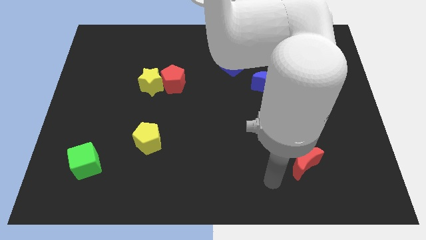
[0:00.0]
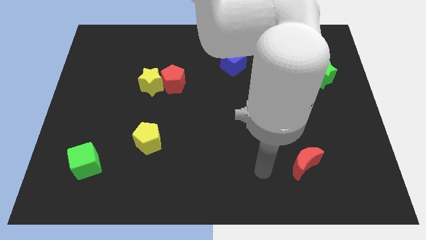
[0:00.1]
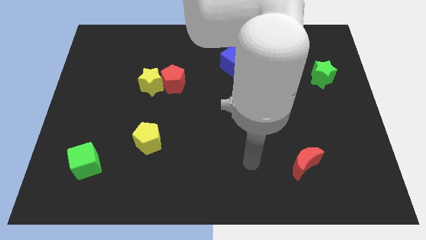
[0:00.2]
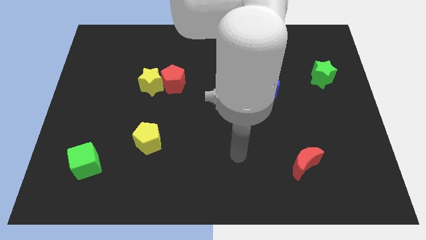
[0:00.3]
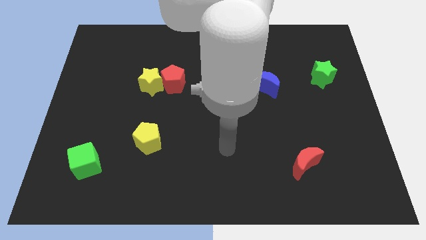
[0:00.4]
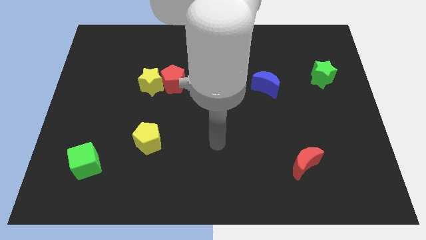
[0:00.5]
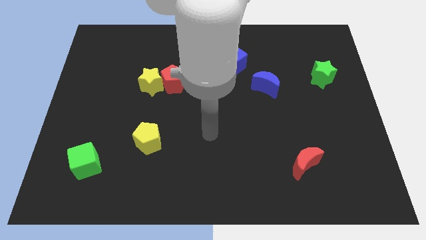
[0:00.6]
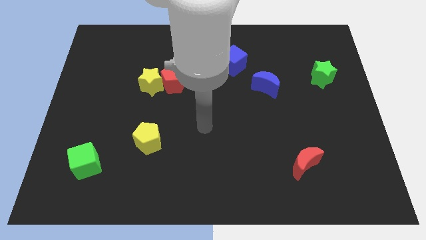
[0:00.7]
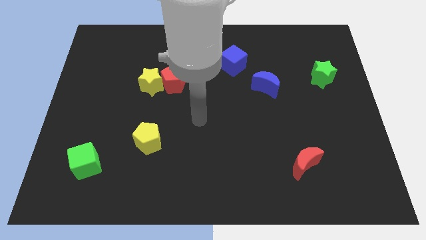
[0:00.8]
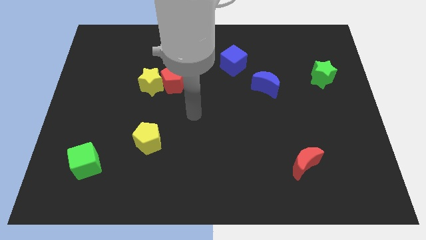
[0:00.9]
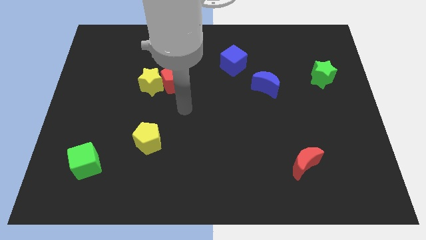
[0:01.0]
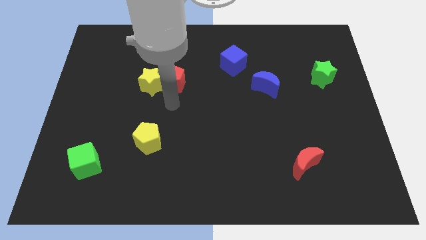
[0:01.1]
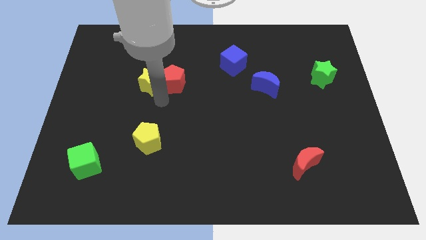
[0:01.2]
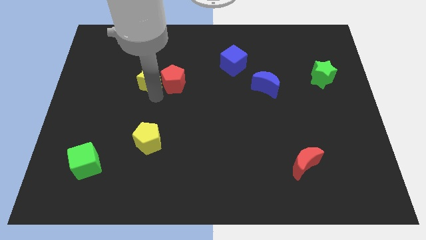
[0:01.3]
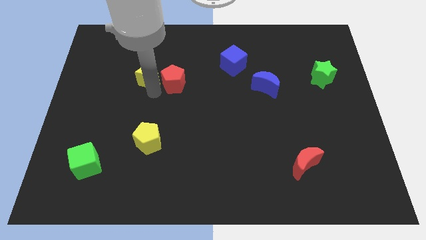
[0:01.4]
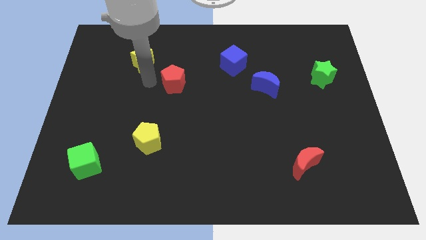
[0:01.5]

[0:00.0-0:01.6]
separate the red pentagon from the yellow star

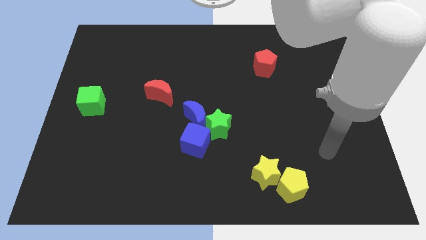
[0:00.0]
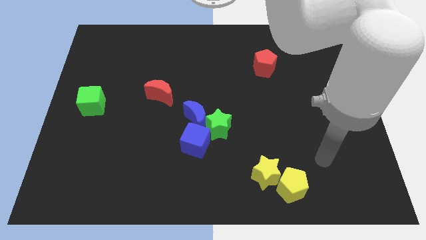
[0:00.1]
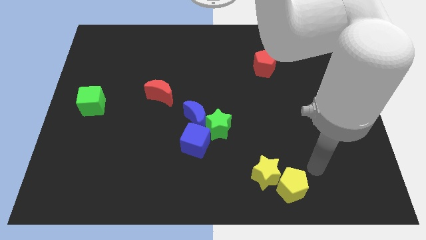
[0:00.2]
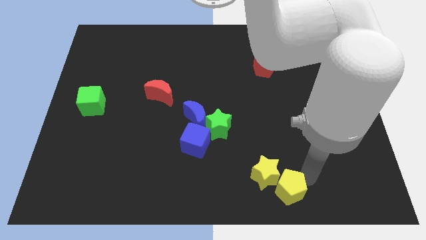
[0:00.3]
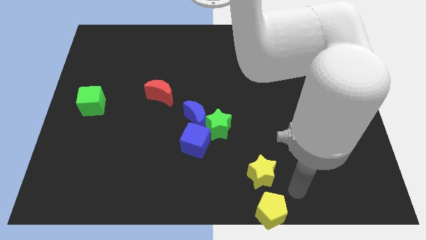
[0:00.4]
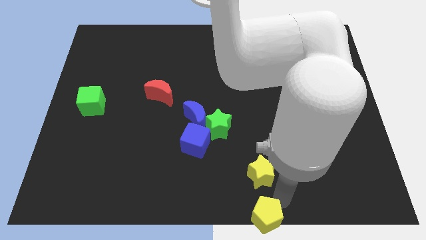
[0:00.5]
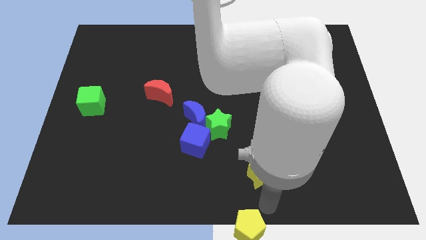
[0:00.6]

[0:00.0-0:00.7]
move the yellow star away from the yellow pentagon

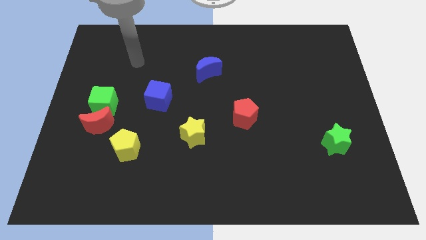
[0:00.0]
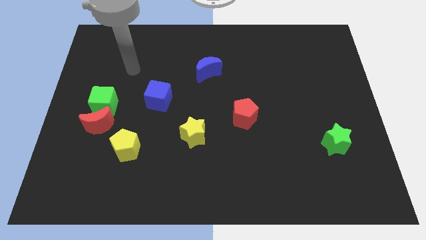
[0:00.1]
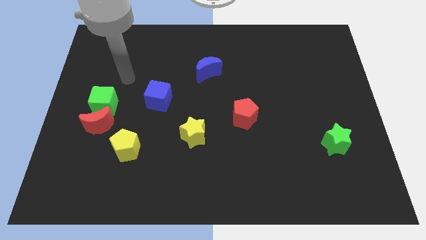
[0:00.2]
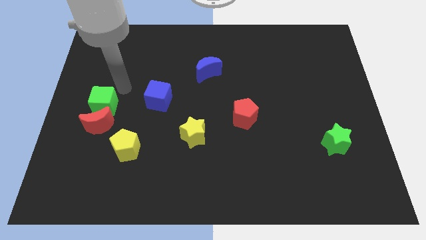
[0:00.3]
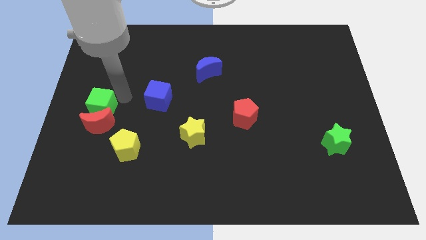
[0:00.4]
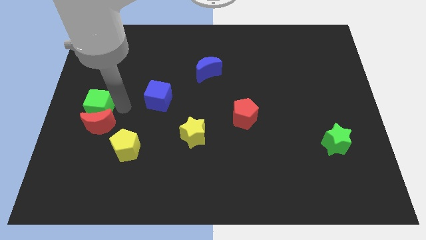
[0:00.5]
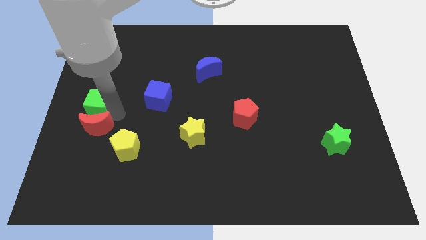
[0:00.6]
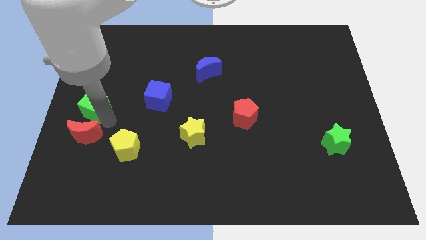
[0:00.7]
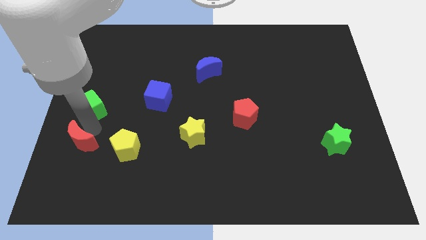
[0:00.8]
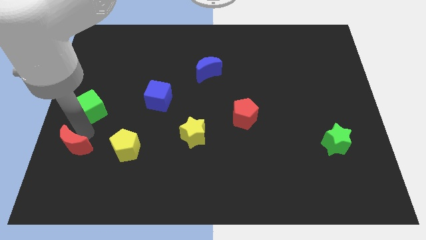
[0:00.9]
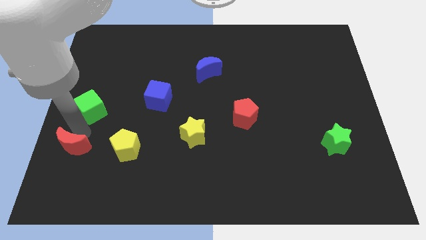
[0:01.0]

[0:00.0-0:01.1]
move the green cube away from the red moon

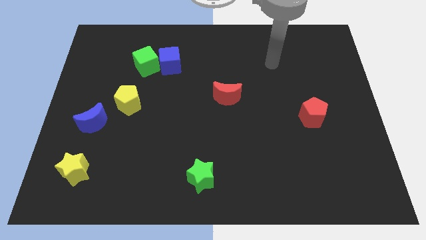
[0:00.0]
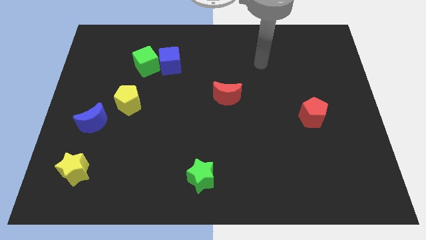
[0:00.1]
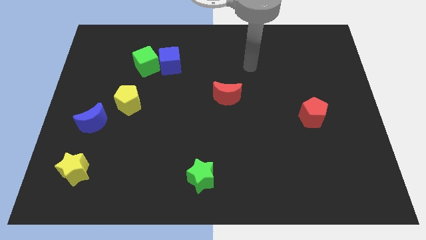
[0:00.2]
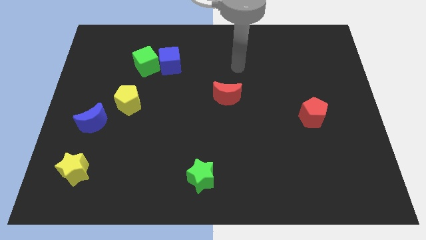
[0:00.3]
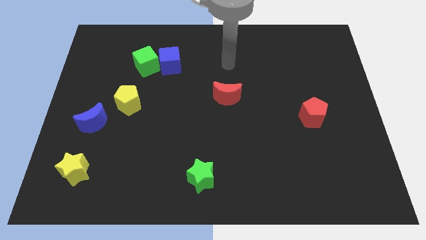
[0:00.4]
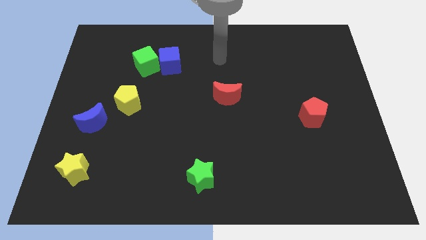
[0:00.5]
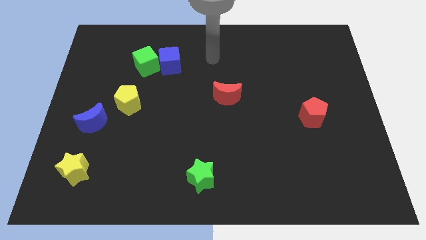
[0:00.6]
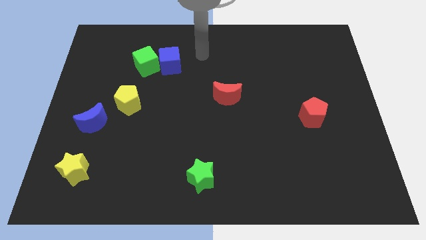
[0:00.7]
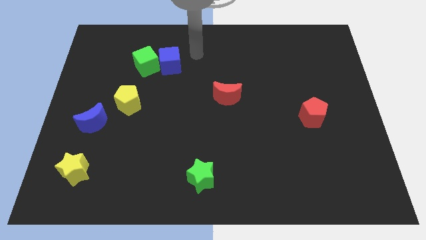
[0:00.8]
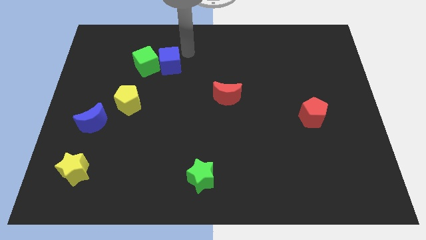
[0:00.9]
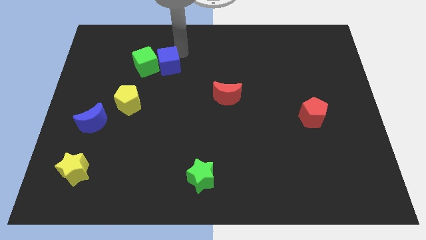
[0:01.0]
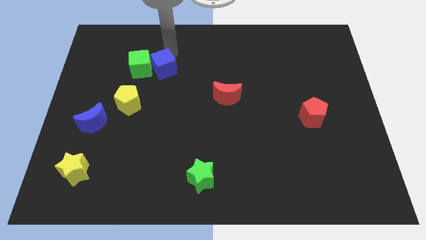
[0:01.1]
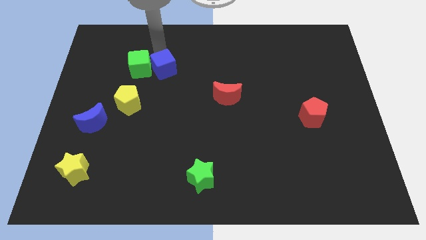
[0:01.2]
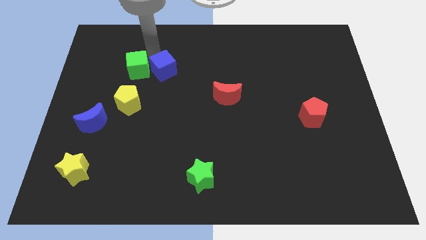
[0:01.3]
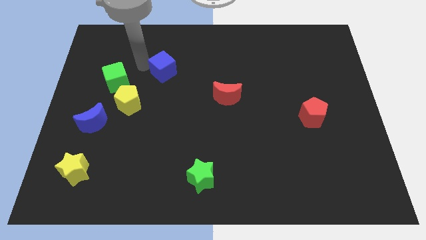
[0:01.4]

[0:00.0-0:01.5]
pull the blue cube apart from the green cube

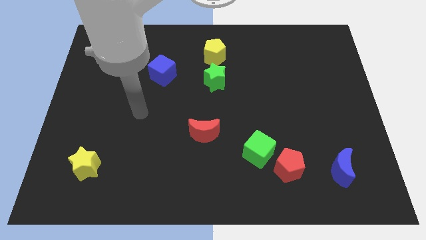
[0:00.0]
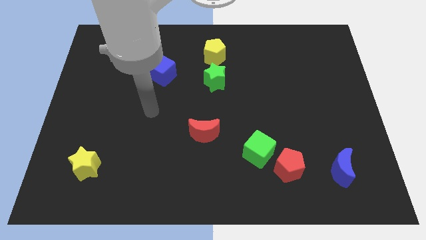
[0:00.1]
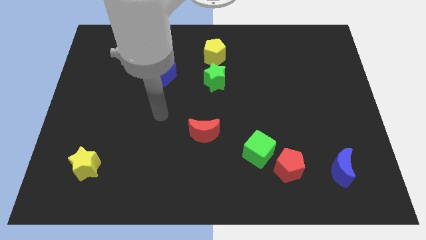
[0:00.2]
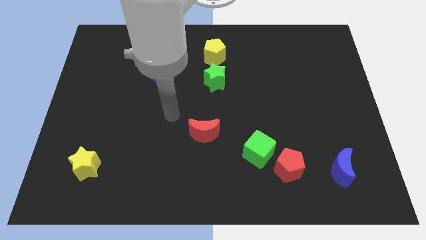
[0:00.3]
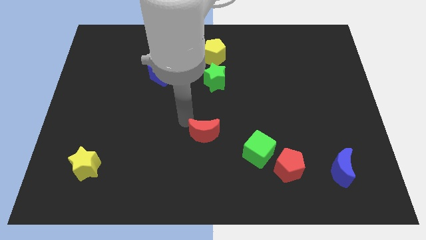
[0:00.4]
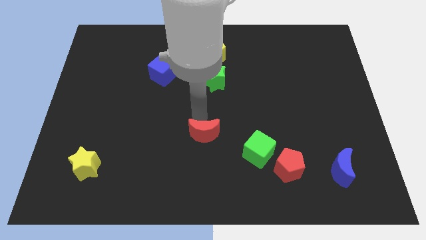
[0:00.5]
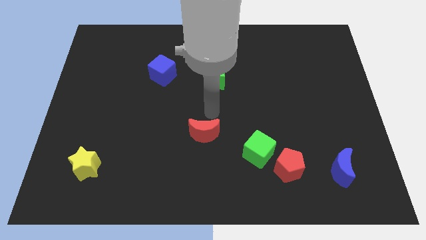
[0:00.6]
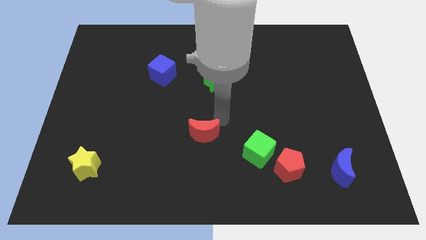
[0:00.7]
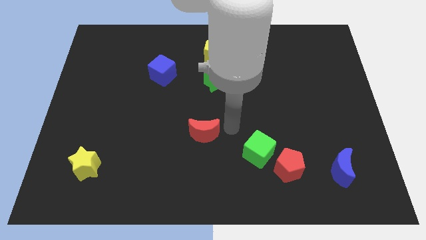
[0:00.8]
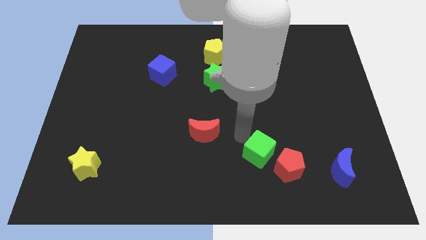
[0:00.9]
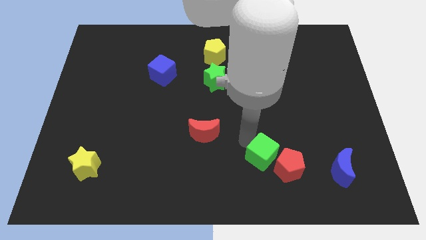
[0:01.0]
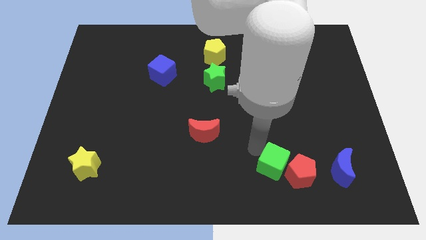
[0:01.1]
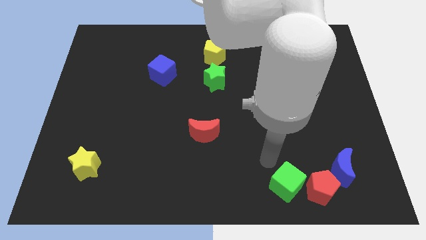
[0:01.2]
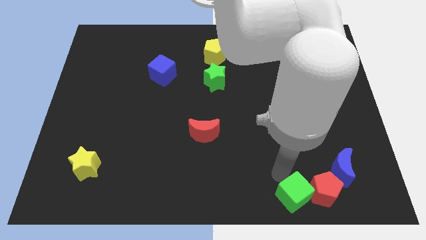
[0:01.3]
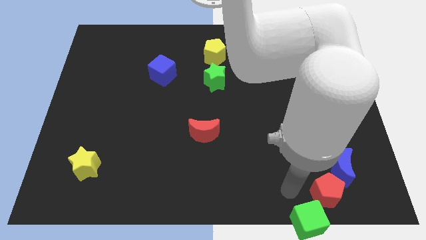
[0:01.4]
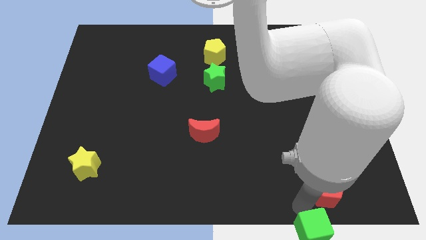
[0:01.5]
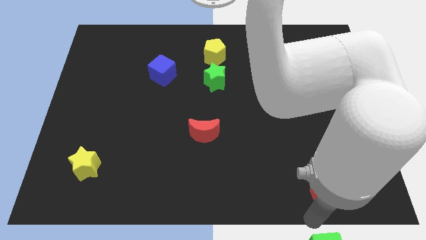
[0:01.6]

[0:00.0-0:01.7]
move the red pentagon away from the green cube

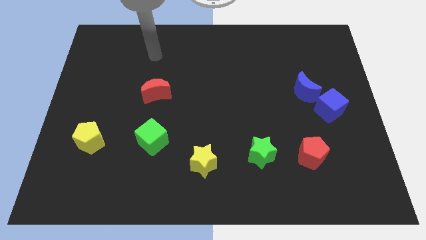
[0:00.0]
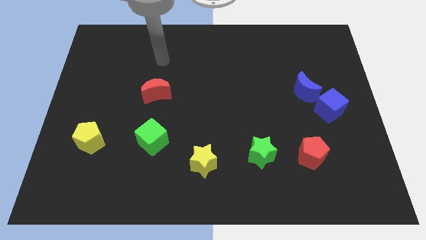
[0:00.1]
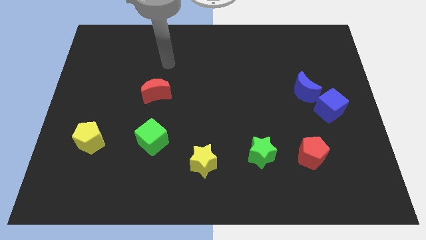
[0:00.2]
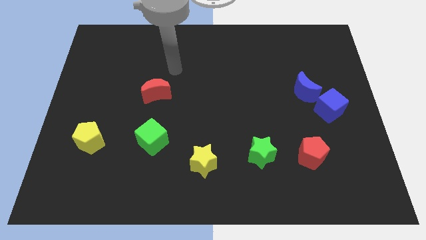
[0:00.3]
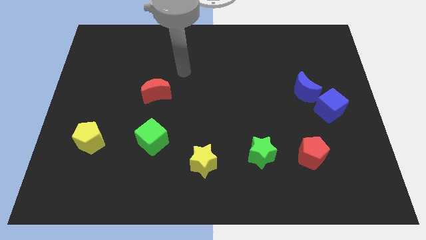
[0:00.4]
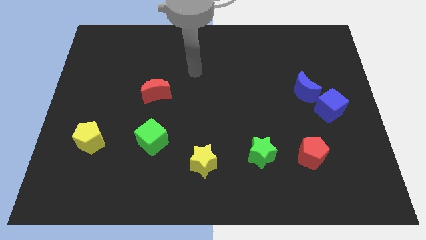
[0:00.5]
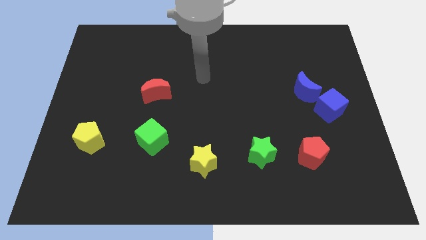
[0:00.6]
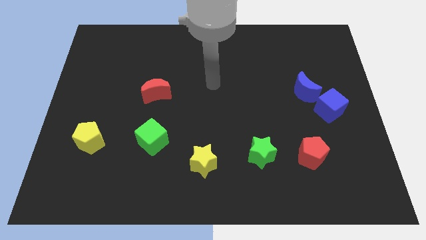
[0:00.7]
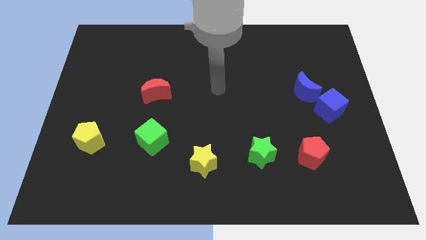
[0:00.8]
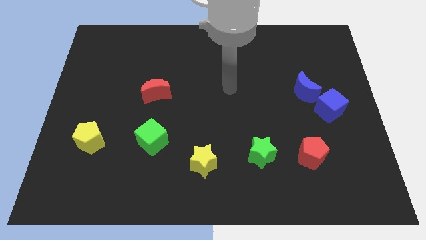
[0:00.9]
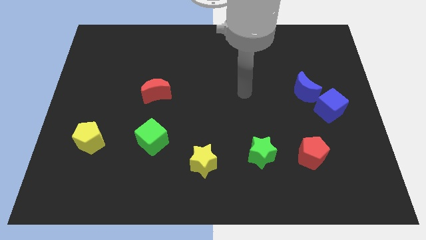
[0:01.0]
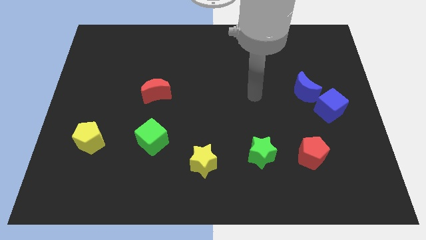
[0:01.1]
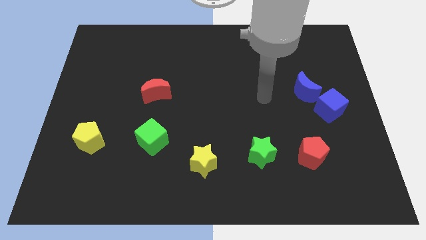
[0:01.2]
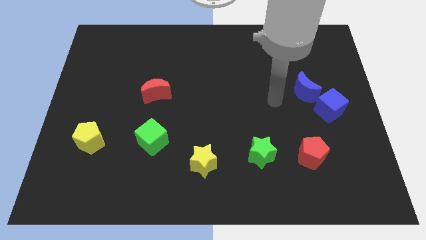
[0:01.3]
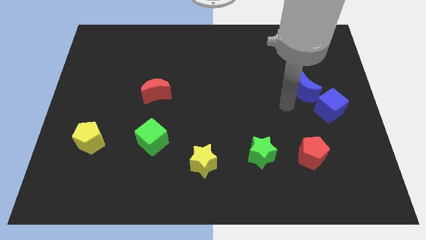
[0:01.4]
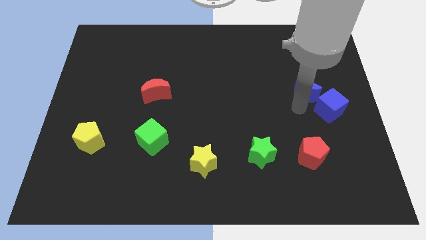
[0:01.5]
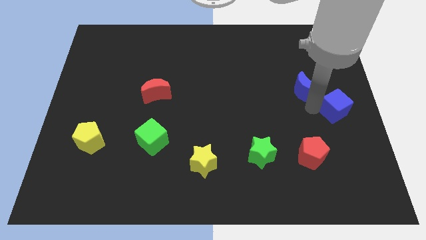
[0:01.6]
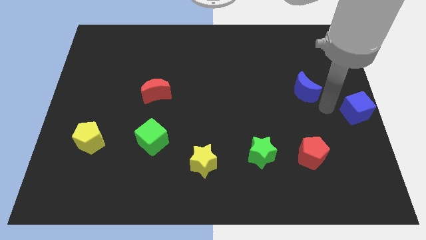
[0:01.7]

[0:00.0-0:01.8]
pull the blue moon apart from the blue cube

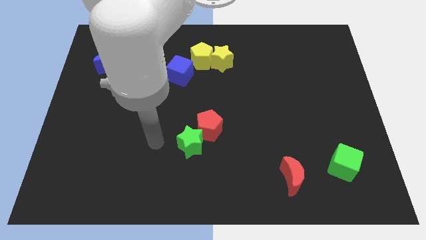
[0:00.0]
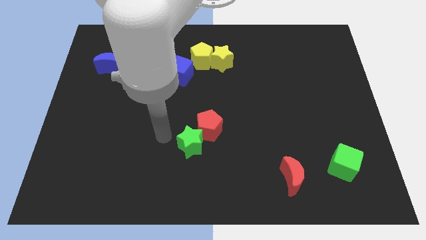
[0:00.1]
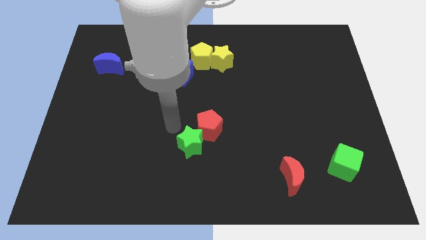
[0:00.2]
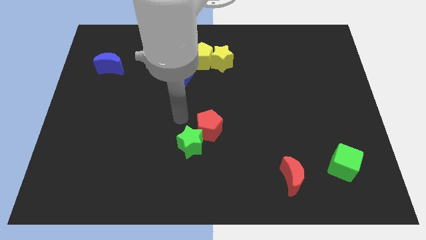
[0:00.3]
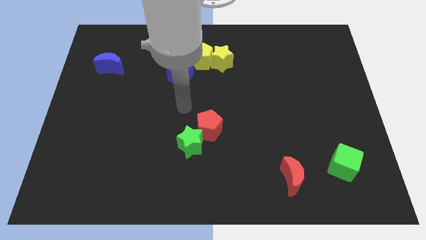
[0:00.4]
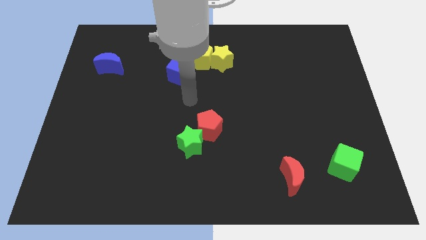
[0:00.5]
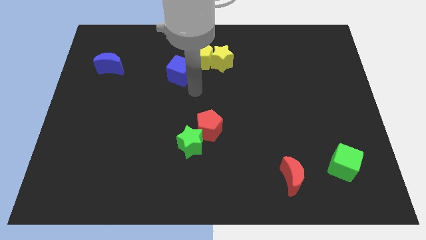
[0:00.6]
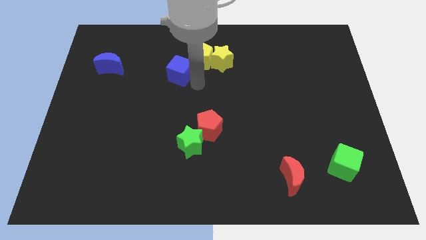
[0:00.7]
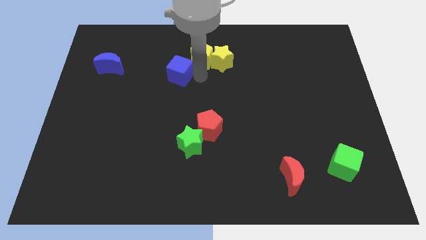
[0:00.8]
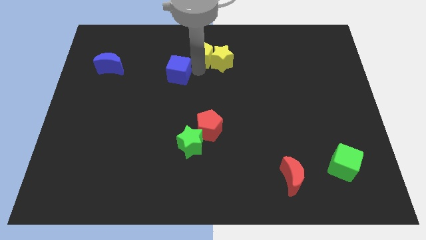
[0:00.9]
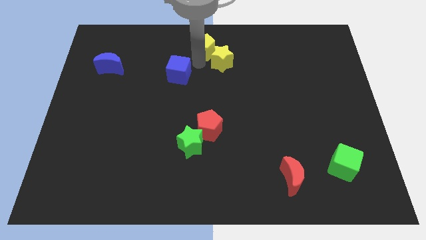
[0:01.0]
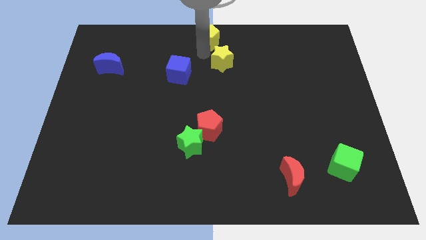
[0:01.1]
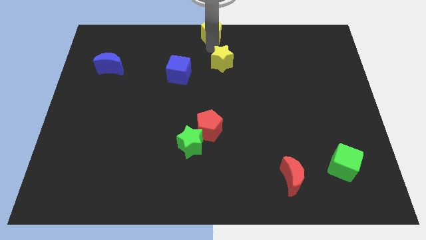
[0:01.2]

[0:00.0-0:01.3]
pull the yellow star apart from the yellow pentagon
